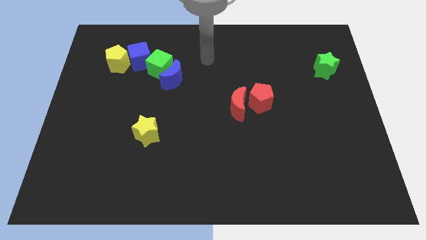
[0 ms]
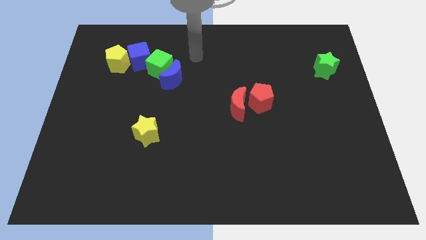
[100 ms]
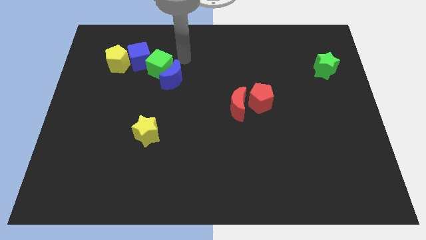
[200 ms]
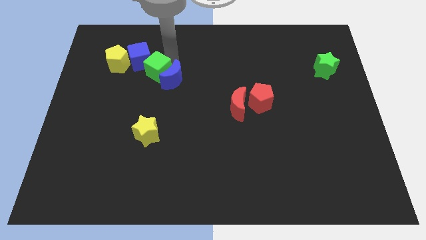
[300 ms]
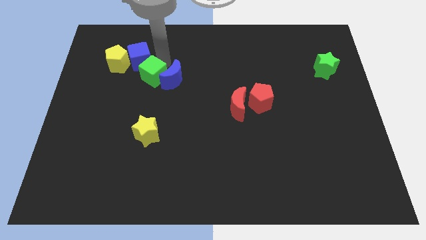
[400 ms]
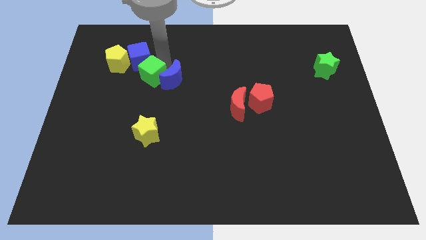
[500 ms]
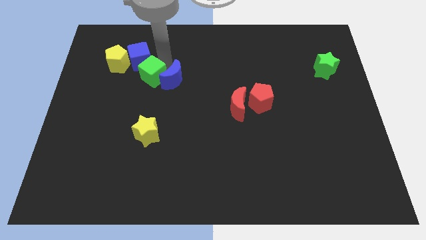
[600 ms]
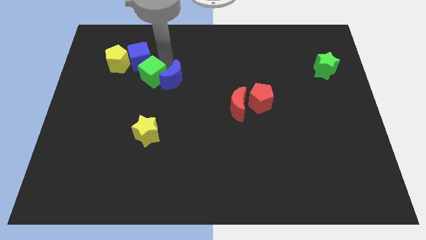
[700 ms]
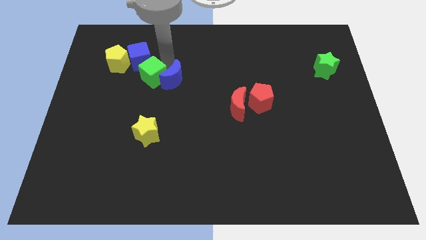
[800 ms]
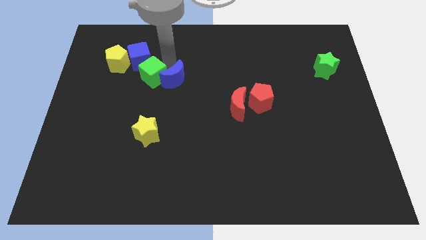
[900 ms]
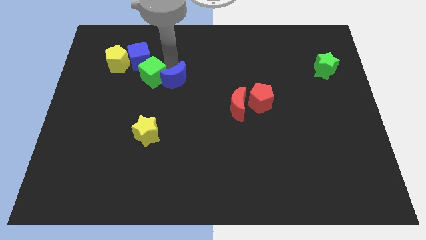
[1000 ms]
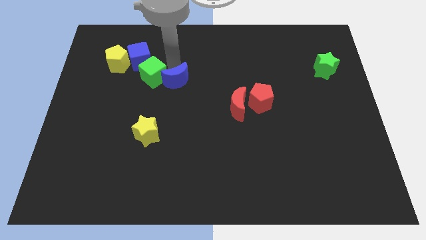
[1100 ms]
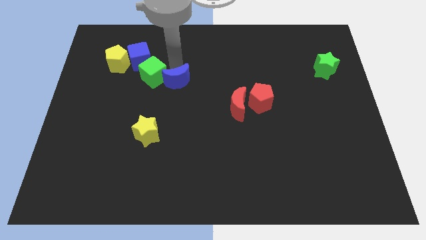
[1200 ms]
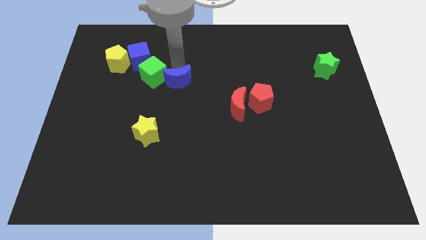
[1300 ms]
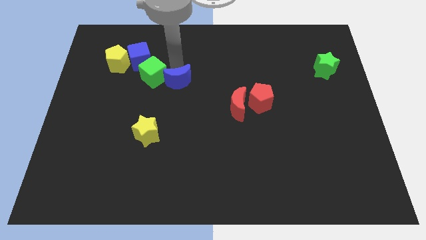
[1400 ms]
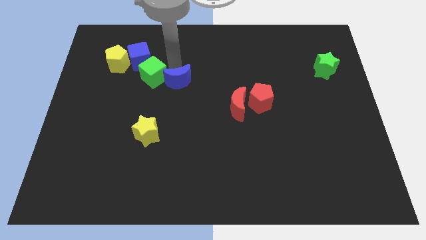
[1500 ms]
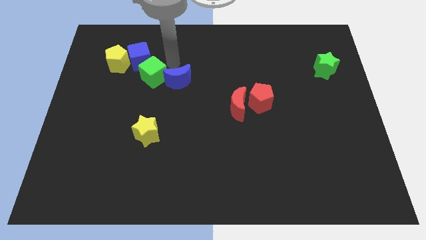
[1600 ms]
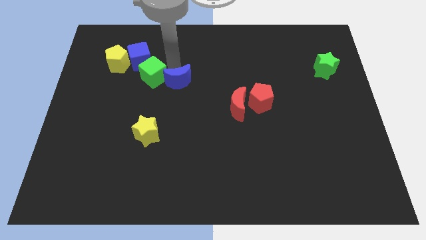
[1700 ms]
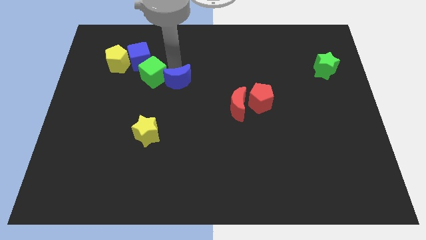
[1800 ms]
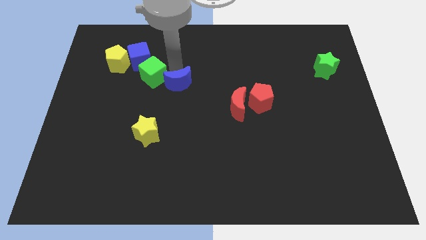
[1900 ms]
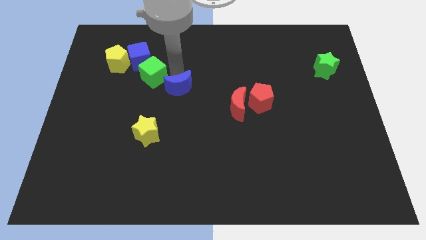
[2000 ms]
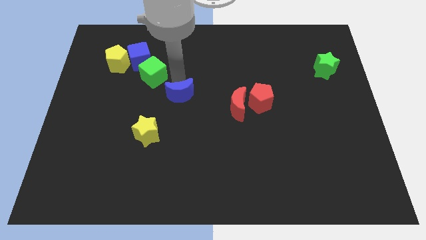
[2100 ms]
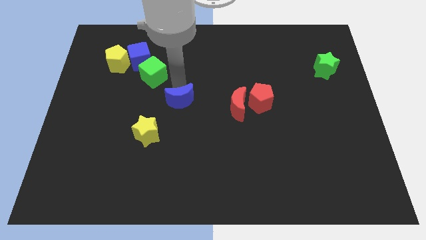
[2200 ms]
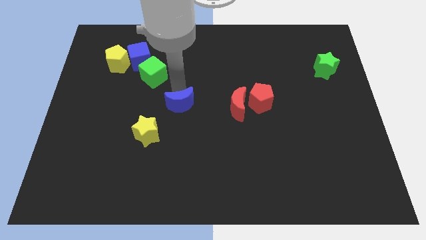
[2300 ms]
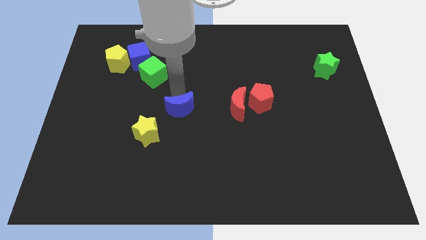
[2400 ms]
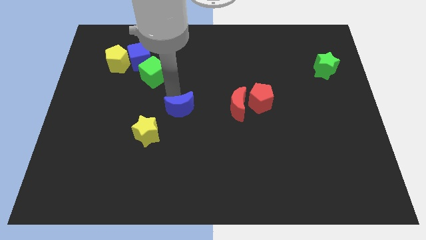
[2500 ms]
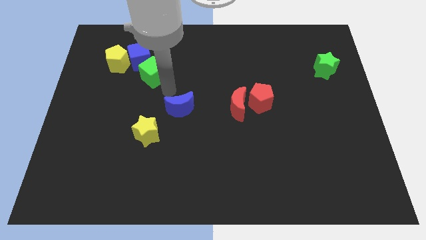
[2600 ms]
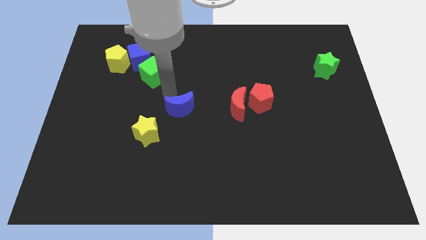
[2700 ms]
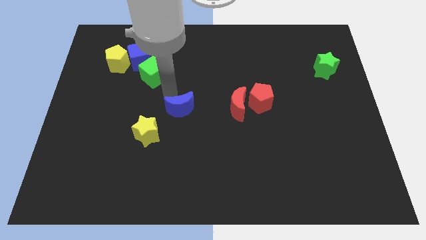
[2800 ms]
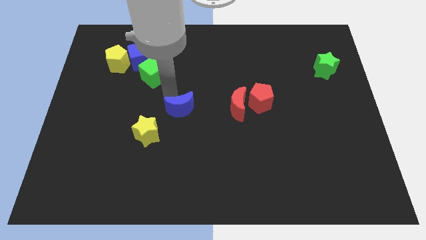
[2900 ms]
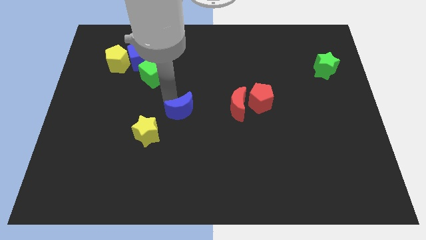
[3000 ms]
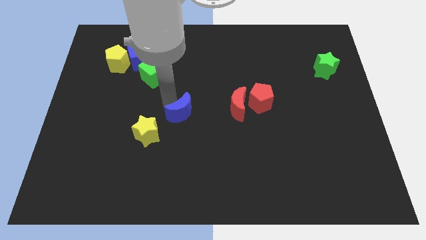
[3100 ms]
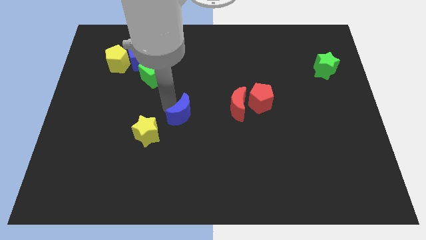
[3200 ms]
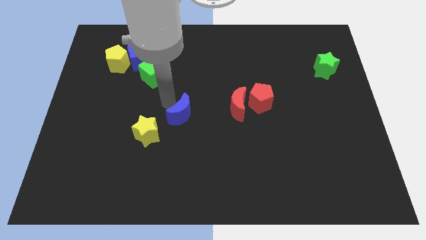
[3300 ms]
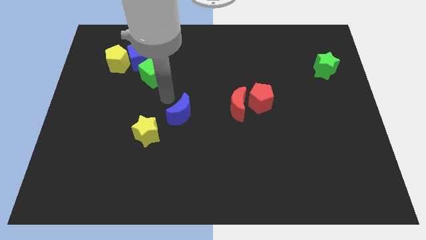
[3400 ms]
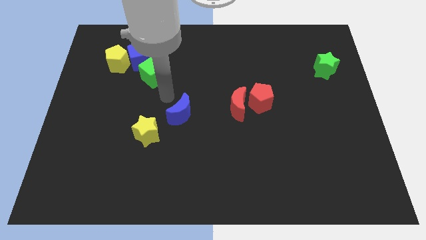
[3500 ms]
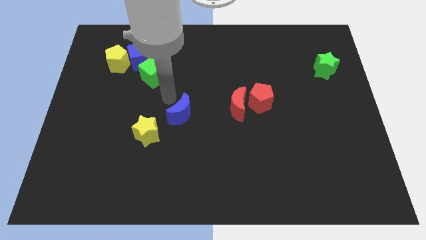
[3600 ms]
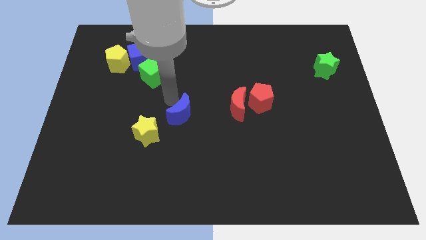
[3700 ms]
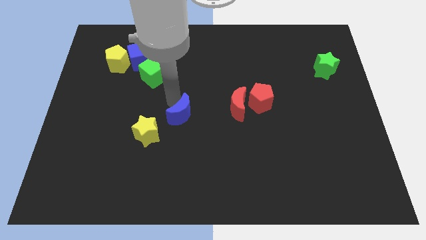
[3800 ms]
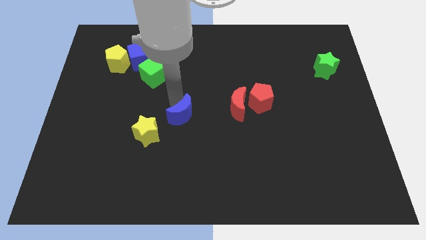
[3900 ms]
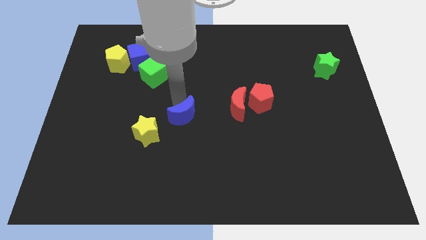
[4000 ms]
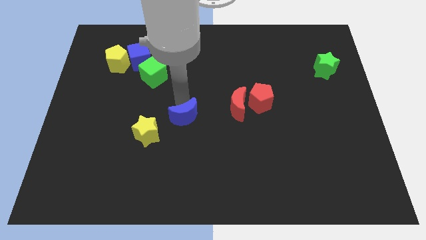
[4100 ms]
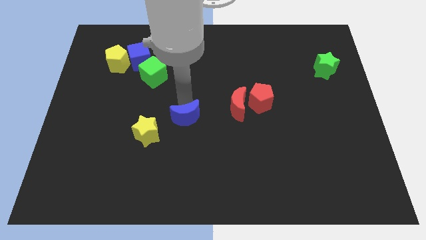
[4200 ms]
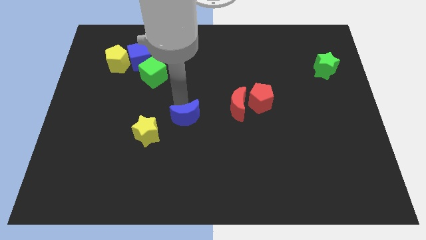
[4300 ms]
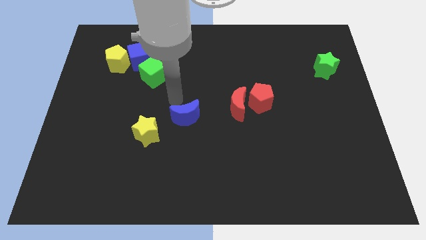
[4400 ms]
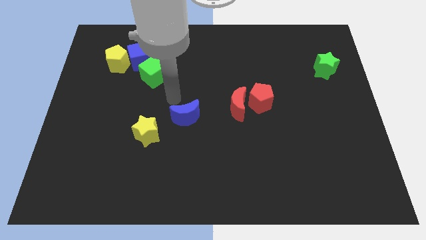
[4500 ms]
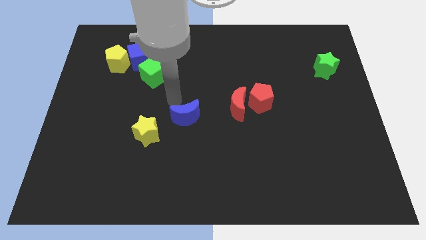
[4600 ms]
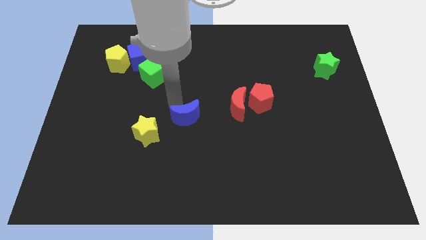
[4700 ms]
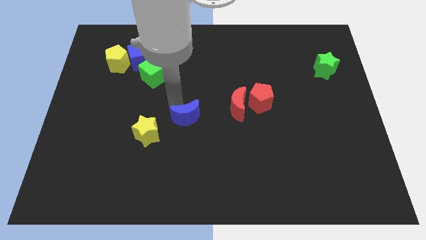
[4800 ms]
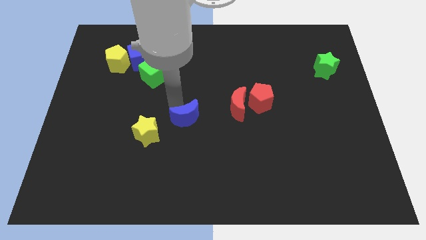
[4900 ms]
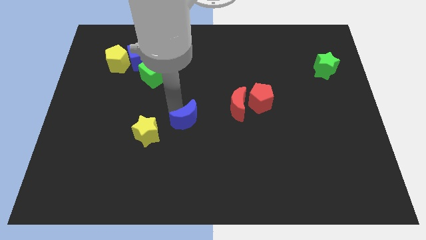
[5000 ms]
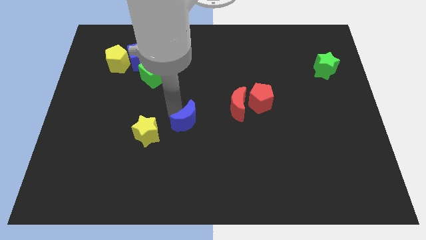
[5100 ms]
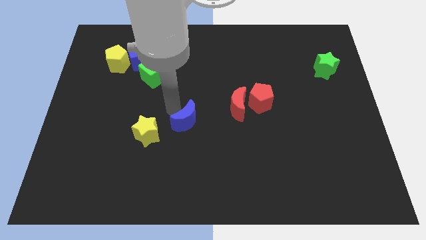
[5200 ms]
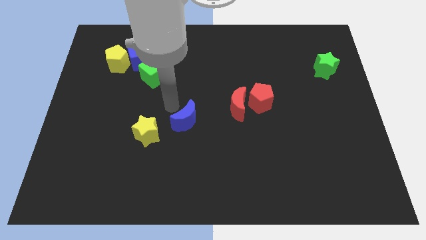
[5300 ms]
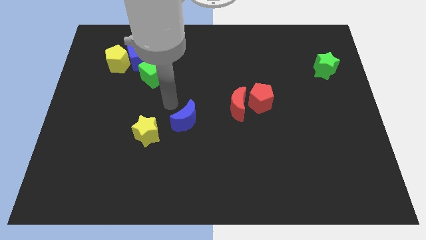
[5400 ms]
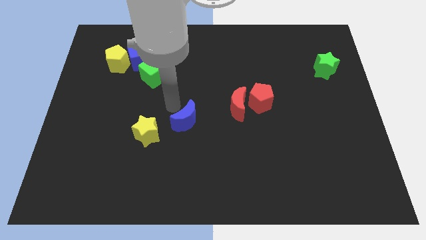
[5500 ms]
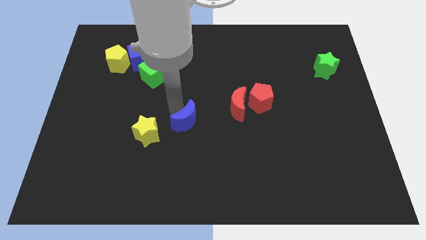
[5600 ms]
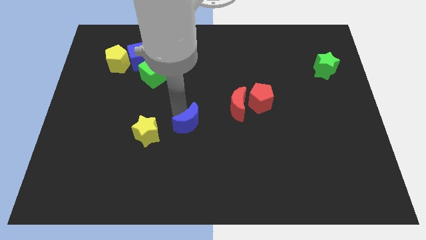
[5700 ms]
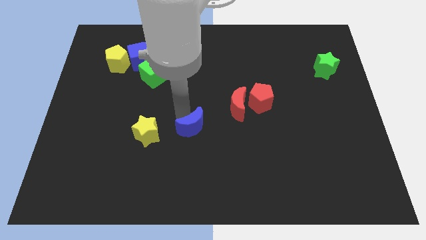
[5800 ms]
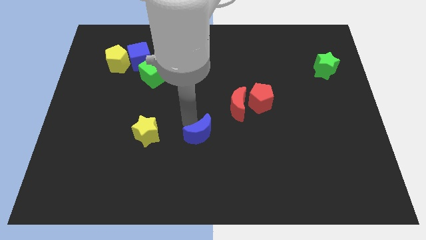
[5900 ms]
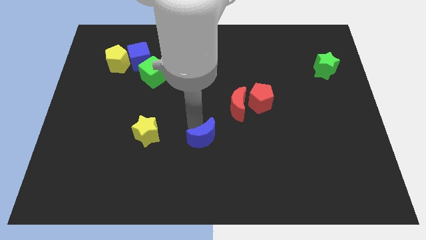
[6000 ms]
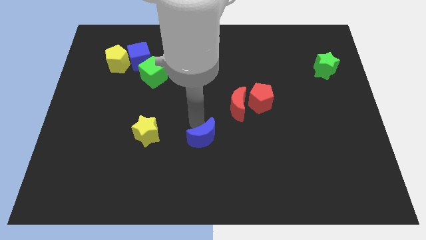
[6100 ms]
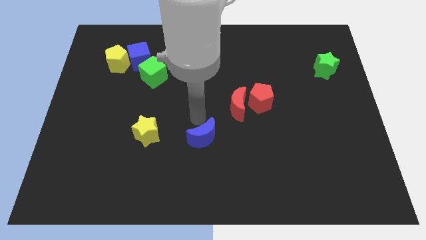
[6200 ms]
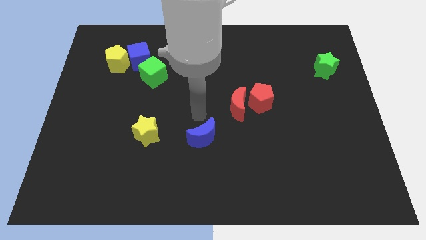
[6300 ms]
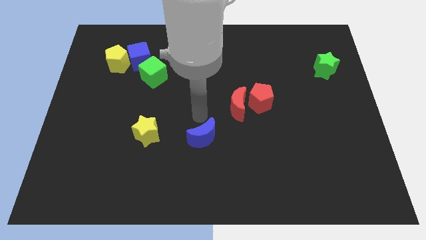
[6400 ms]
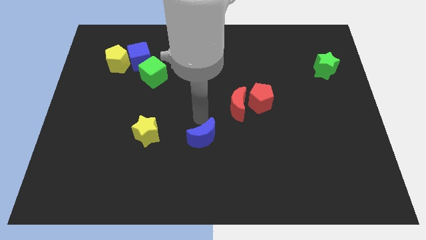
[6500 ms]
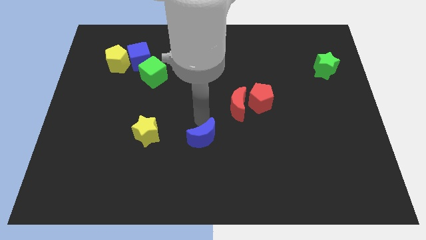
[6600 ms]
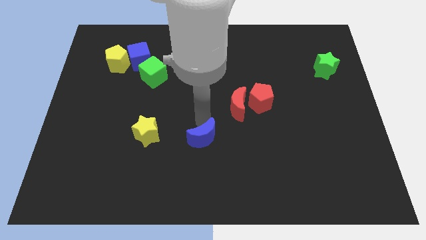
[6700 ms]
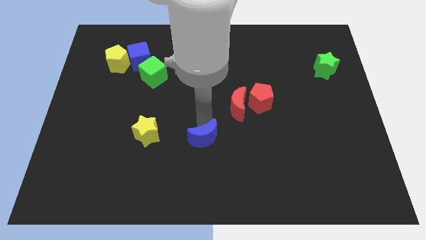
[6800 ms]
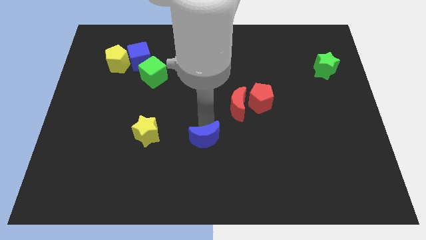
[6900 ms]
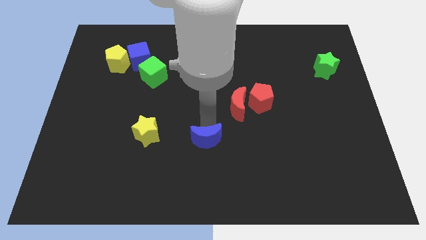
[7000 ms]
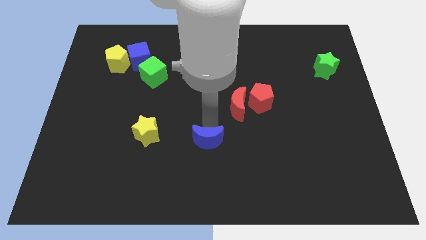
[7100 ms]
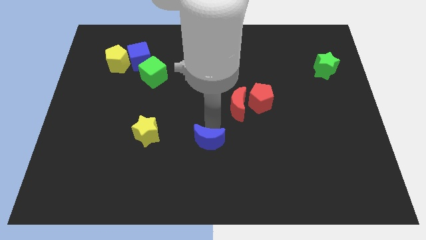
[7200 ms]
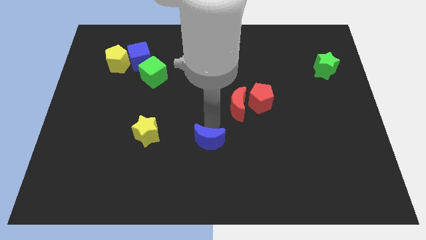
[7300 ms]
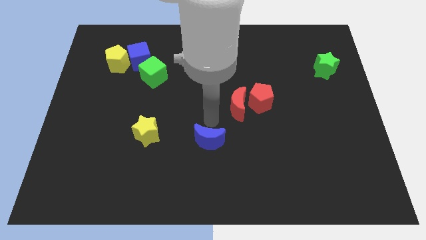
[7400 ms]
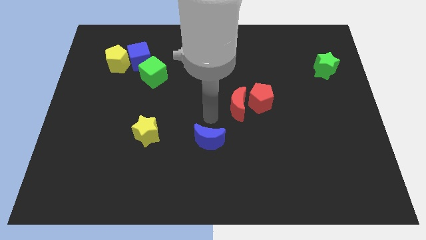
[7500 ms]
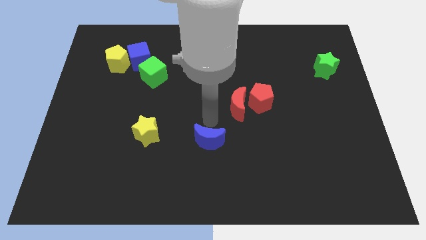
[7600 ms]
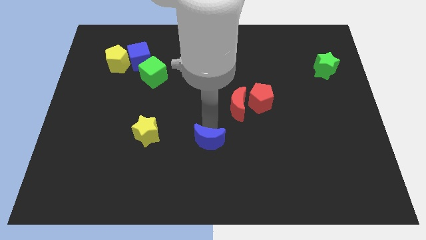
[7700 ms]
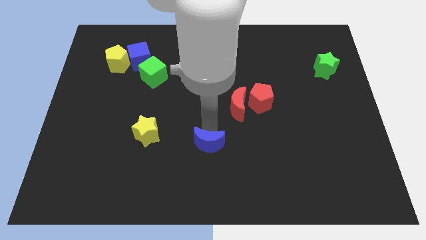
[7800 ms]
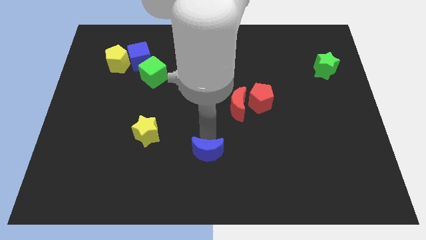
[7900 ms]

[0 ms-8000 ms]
push the blue moon to the bottom side
